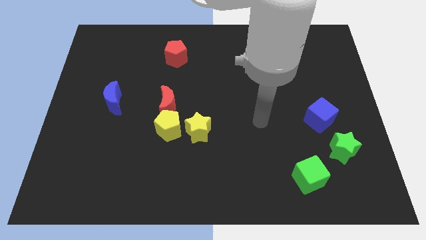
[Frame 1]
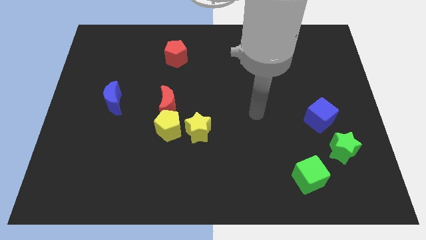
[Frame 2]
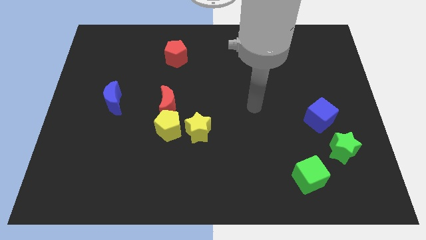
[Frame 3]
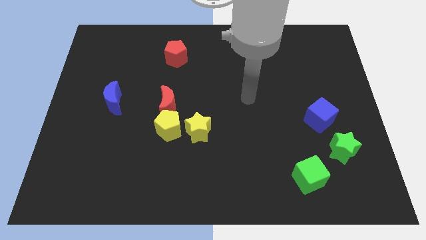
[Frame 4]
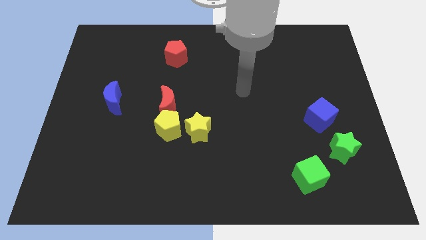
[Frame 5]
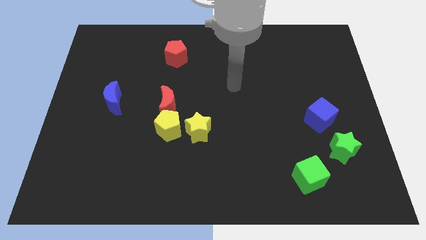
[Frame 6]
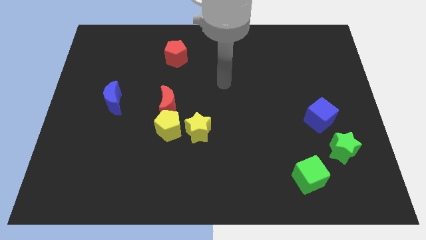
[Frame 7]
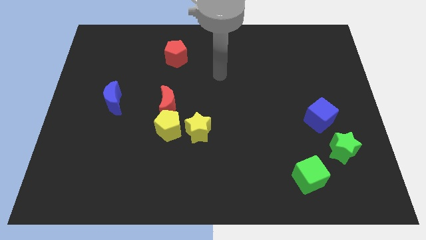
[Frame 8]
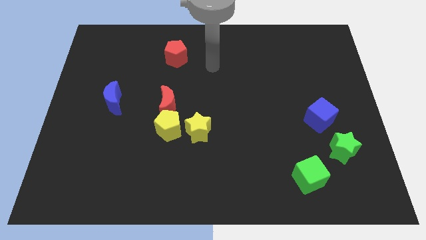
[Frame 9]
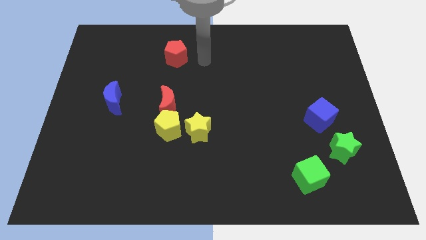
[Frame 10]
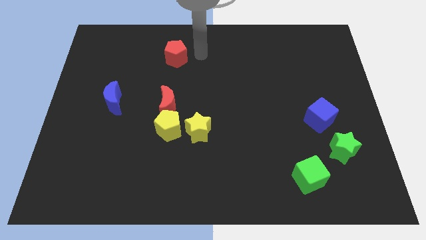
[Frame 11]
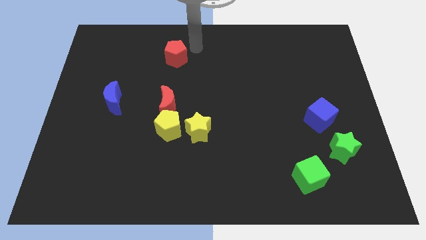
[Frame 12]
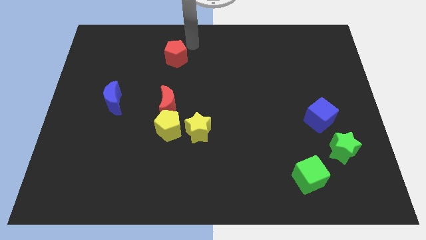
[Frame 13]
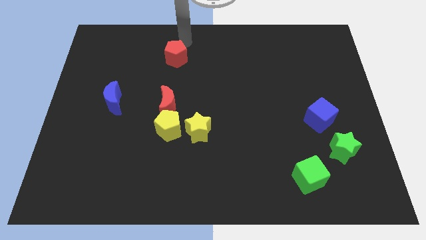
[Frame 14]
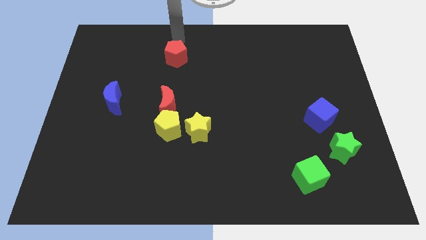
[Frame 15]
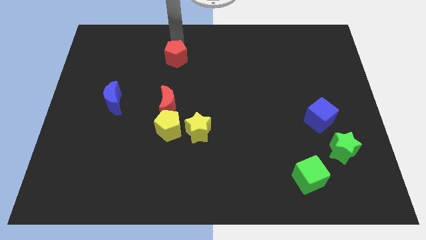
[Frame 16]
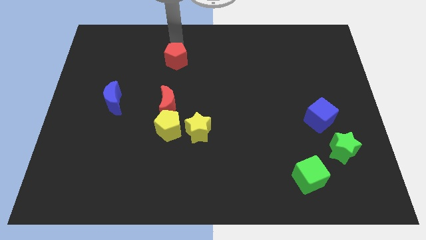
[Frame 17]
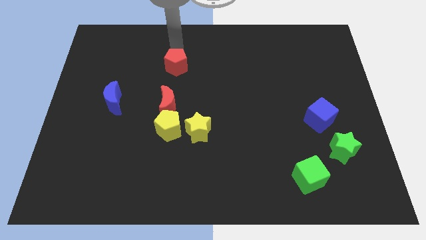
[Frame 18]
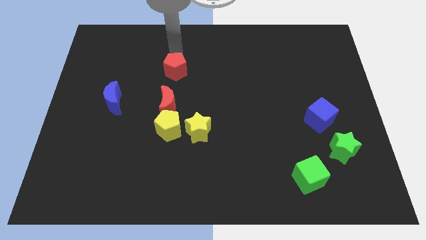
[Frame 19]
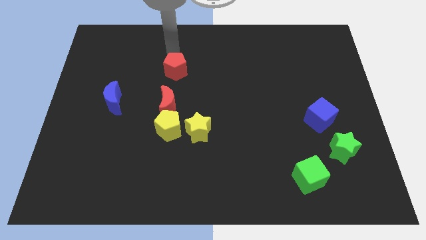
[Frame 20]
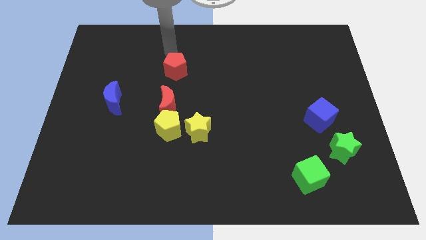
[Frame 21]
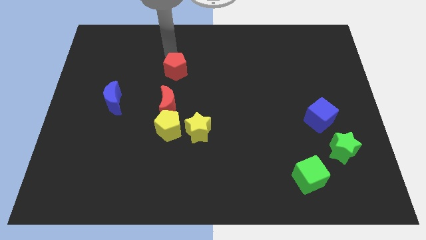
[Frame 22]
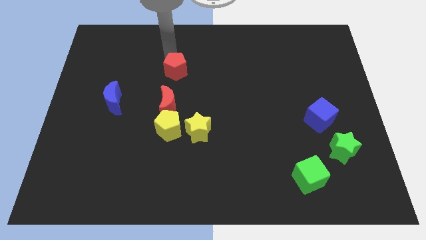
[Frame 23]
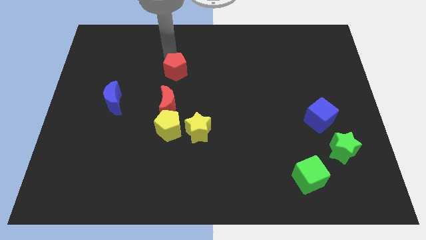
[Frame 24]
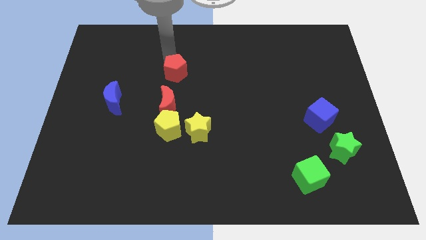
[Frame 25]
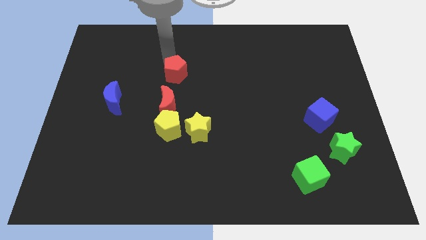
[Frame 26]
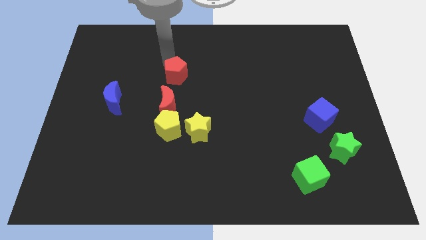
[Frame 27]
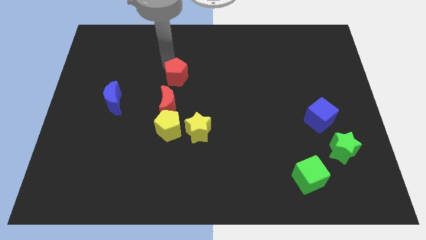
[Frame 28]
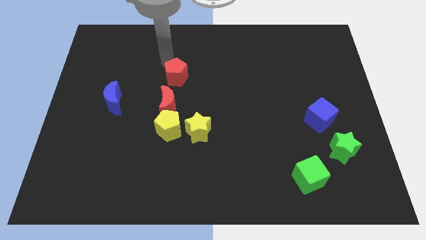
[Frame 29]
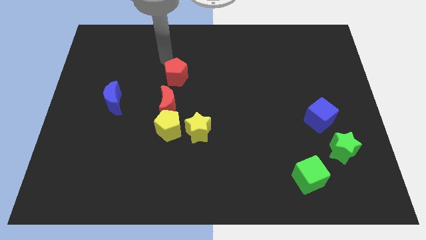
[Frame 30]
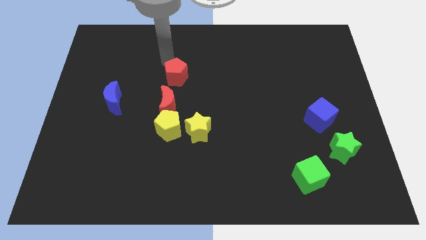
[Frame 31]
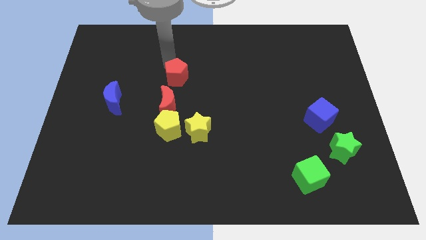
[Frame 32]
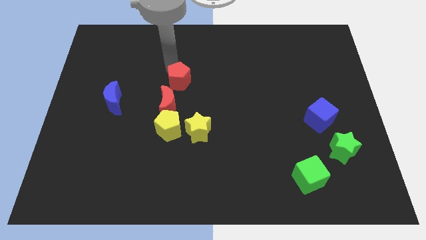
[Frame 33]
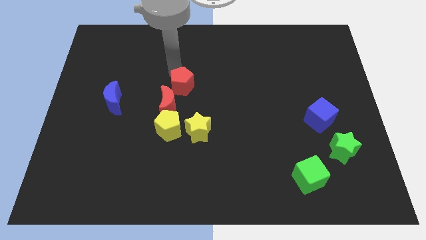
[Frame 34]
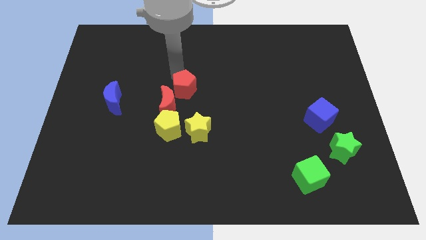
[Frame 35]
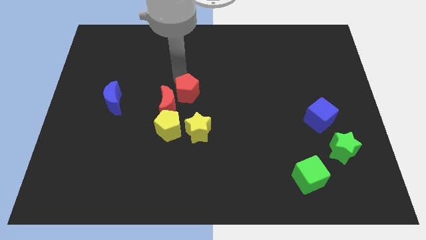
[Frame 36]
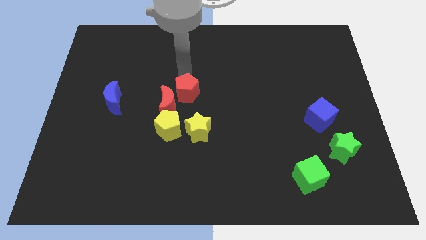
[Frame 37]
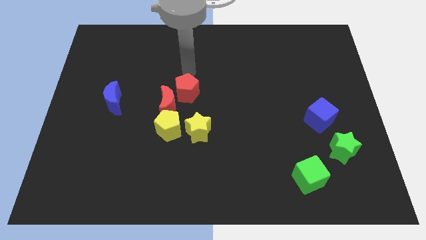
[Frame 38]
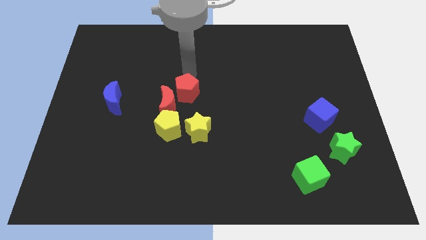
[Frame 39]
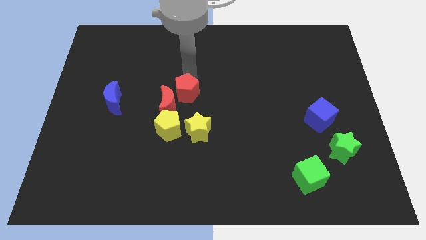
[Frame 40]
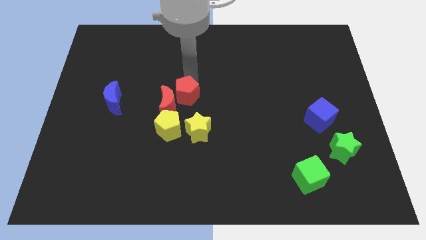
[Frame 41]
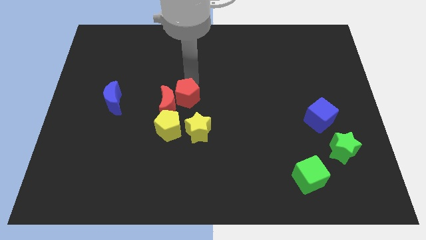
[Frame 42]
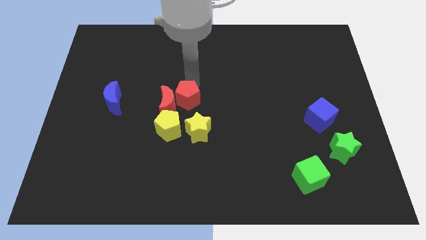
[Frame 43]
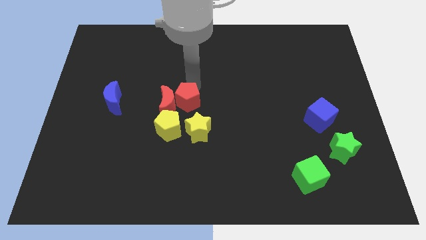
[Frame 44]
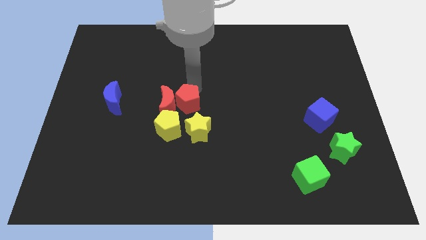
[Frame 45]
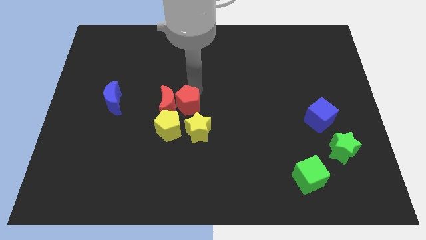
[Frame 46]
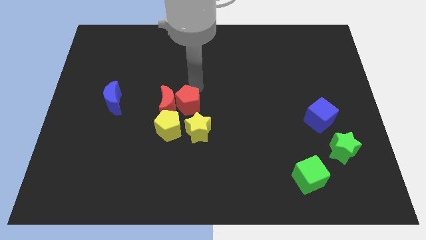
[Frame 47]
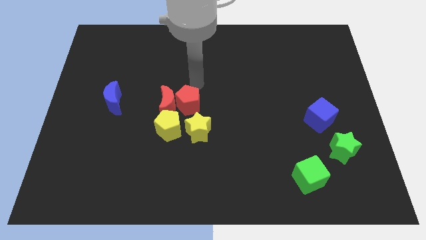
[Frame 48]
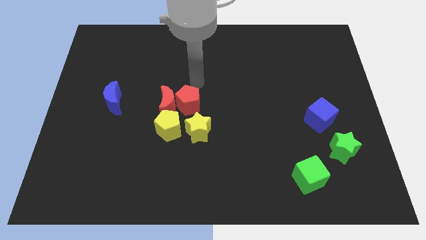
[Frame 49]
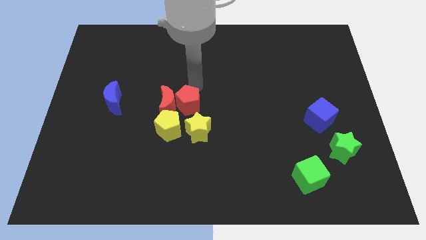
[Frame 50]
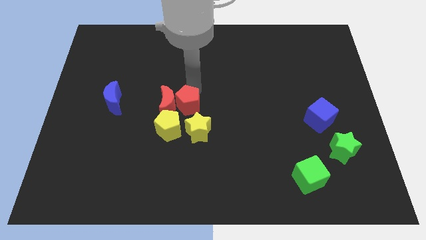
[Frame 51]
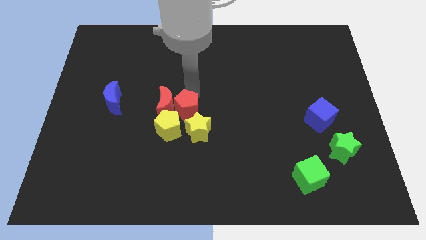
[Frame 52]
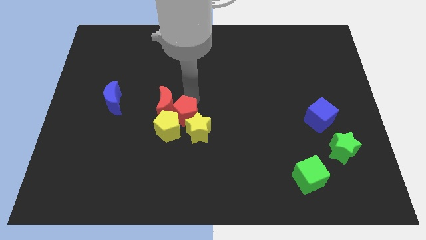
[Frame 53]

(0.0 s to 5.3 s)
move the red pentagon close to the yellow pentagon

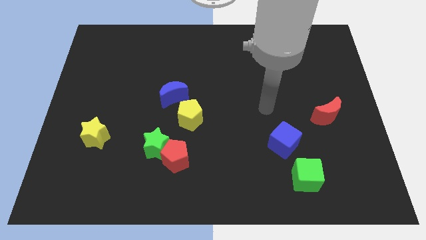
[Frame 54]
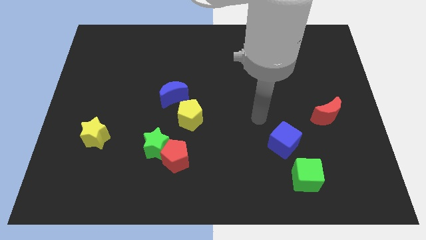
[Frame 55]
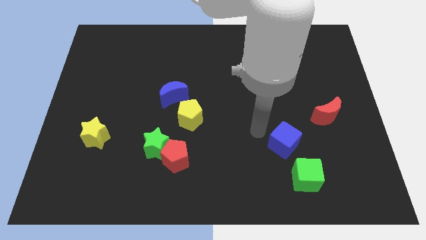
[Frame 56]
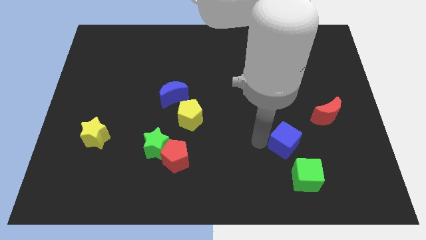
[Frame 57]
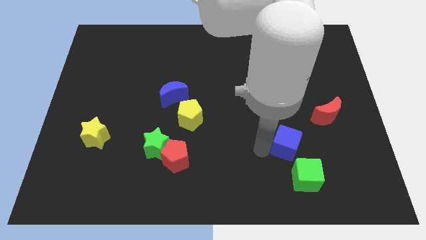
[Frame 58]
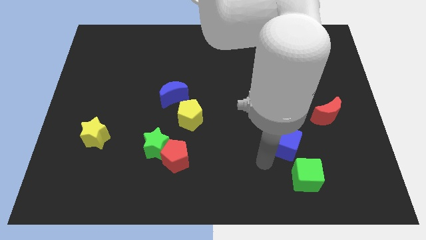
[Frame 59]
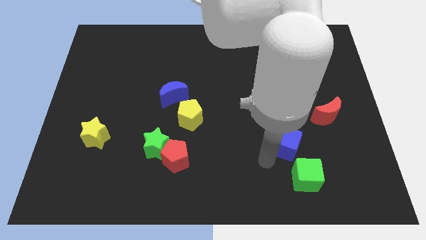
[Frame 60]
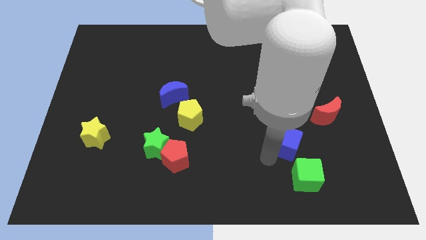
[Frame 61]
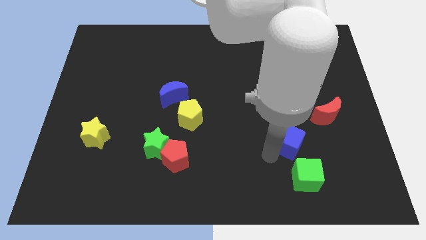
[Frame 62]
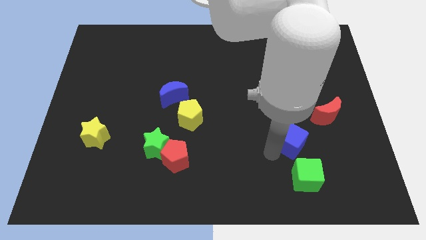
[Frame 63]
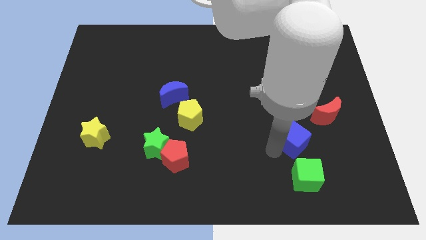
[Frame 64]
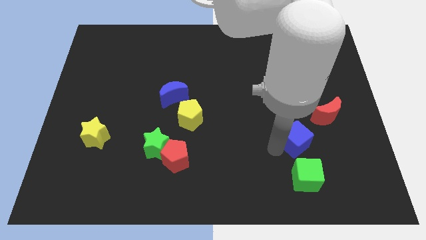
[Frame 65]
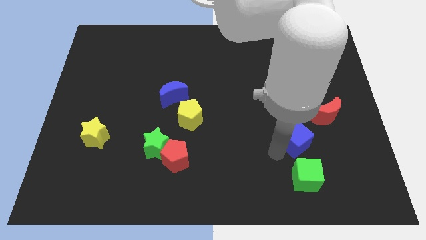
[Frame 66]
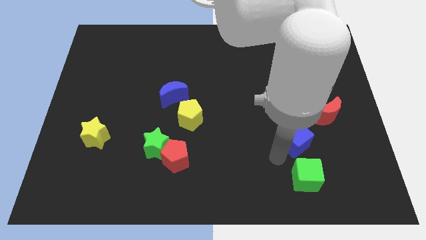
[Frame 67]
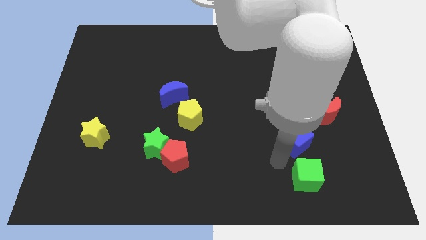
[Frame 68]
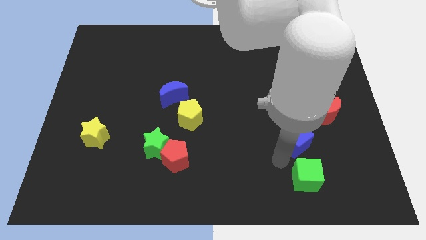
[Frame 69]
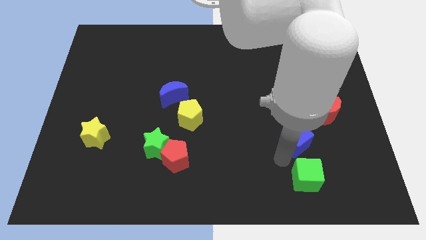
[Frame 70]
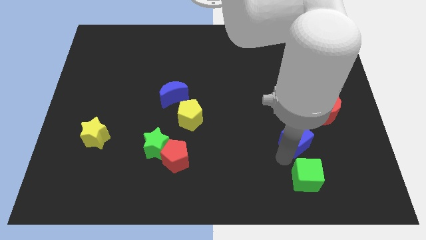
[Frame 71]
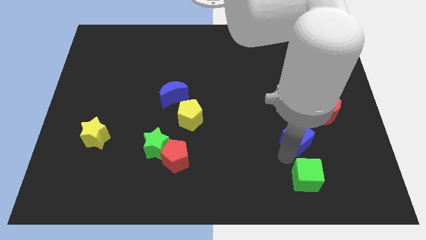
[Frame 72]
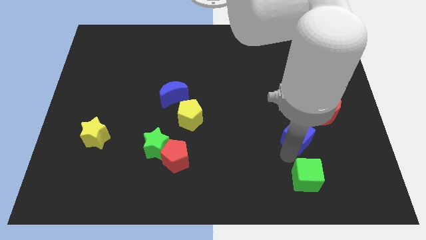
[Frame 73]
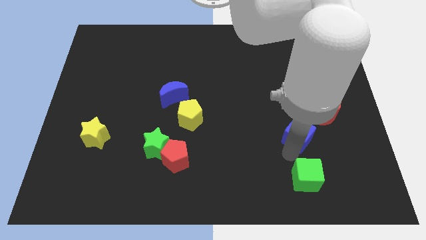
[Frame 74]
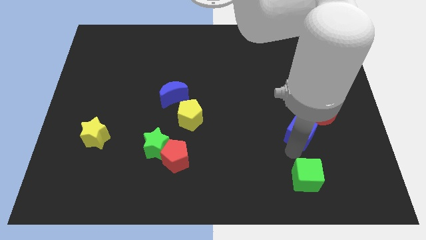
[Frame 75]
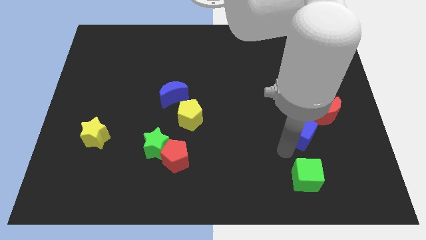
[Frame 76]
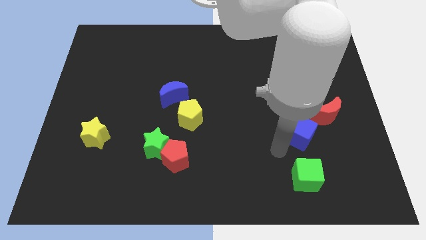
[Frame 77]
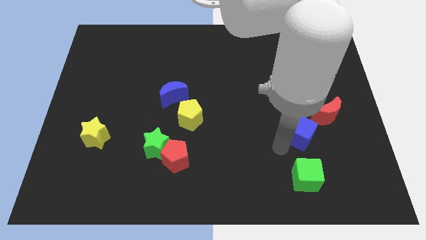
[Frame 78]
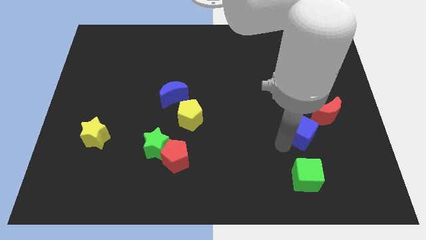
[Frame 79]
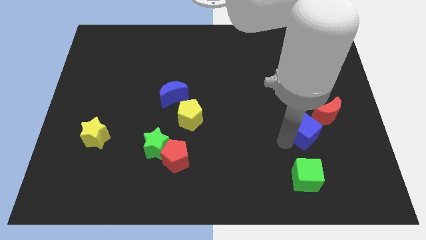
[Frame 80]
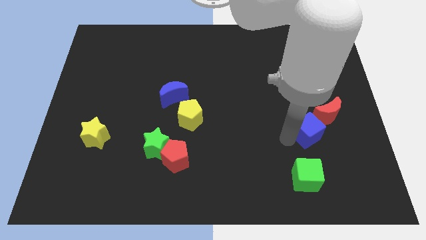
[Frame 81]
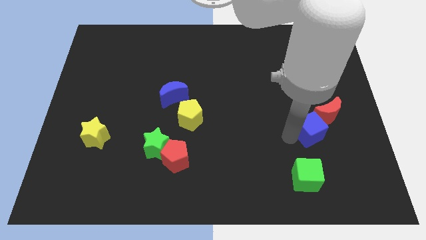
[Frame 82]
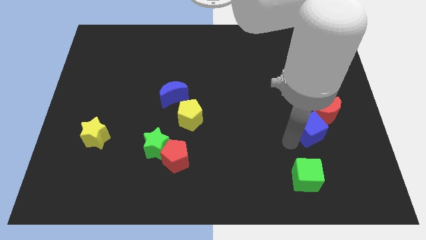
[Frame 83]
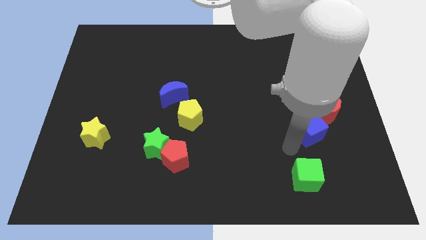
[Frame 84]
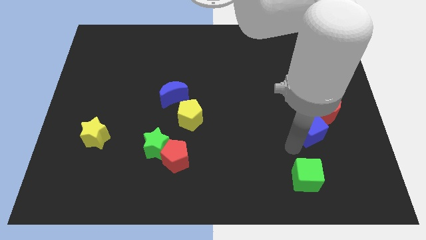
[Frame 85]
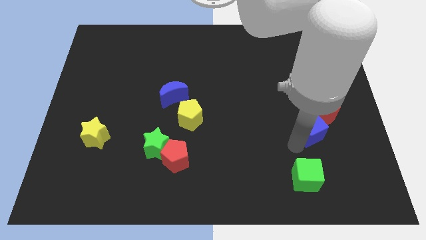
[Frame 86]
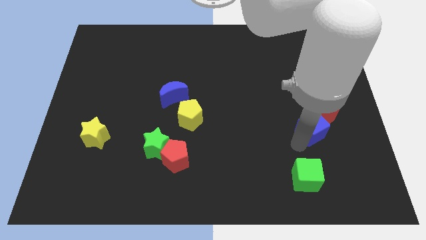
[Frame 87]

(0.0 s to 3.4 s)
move the blue cube towards the red moon
